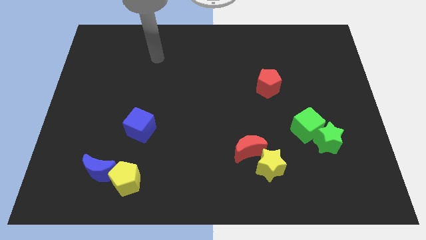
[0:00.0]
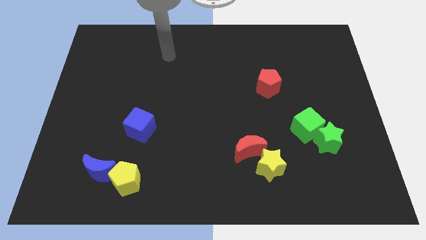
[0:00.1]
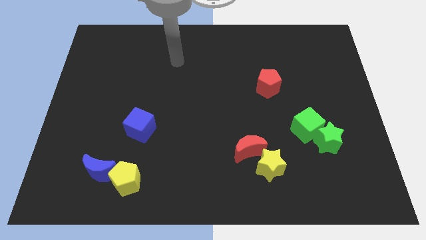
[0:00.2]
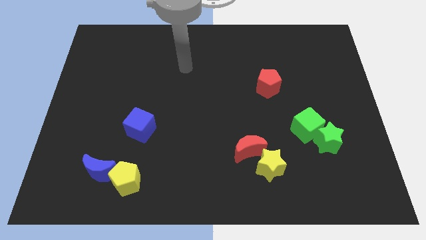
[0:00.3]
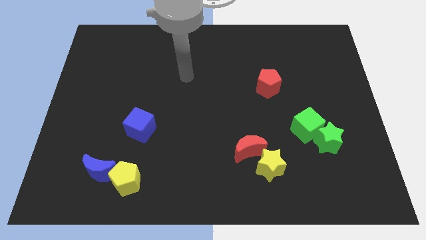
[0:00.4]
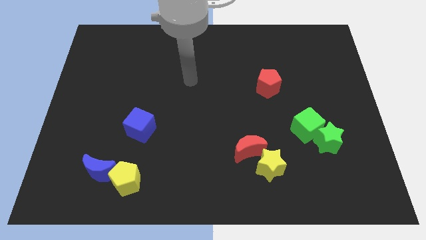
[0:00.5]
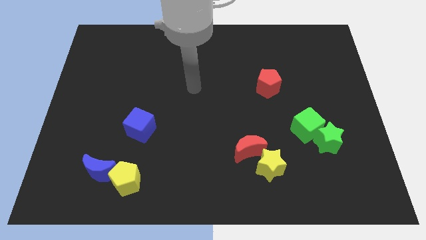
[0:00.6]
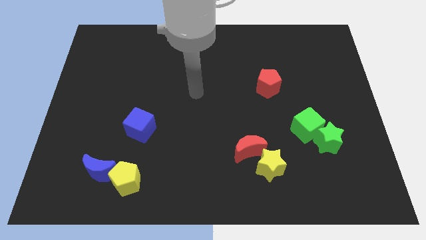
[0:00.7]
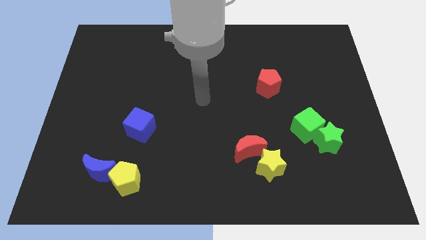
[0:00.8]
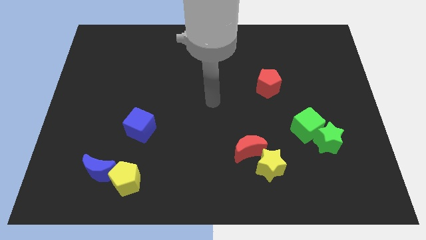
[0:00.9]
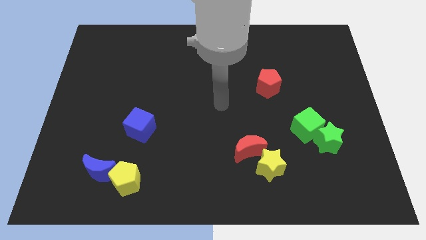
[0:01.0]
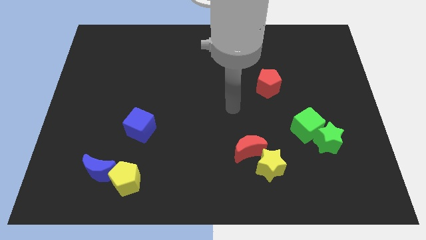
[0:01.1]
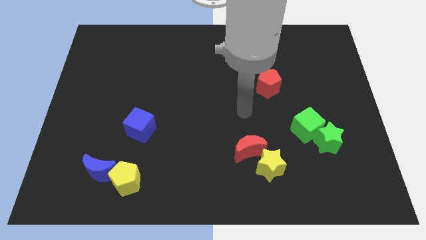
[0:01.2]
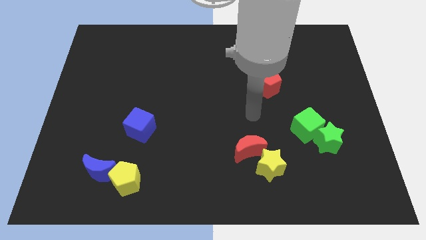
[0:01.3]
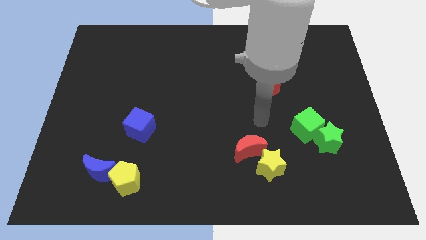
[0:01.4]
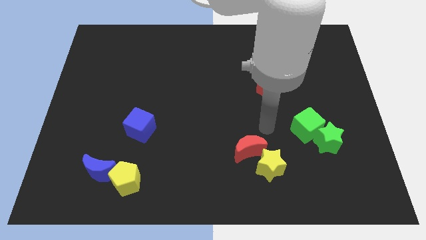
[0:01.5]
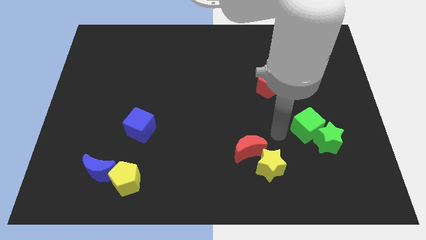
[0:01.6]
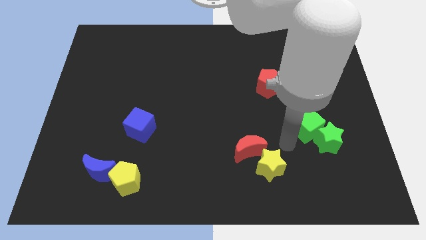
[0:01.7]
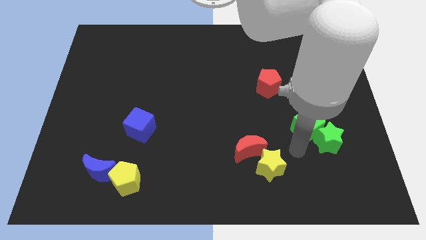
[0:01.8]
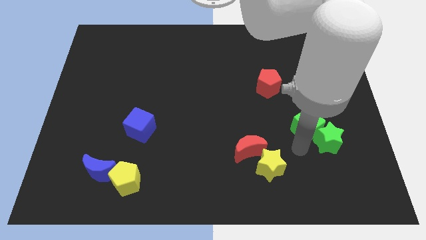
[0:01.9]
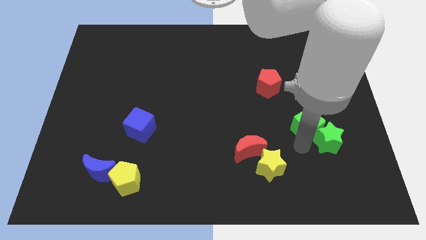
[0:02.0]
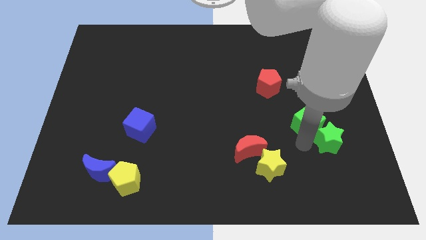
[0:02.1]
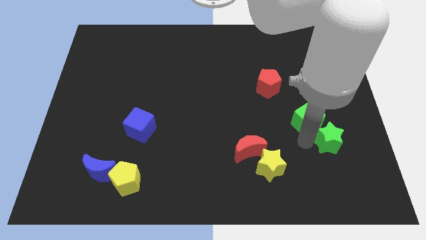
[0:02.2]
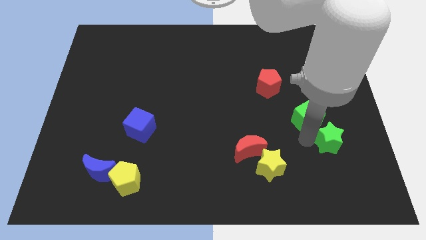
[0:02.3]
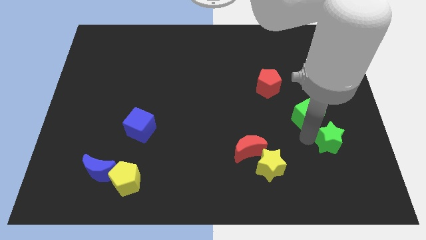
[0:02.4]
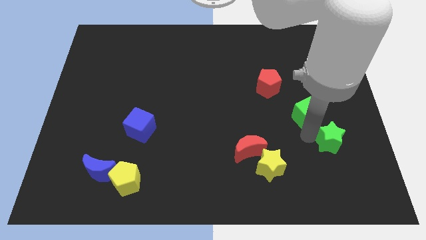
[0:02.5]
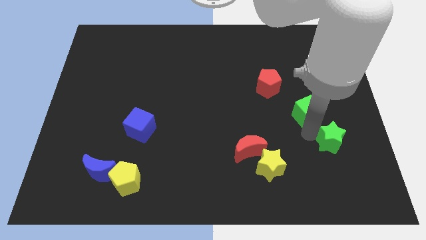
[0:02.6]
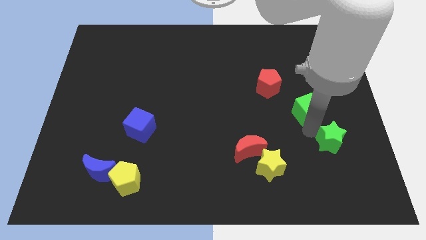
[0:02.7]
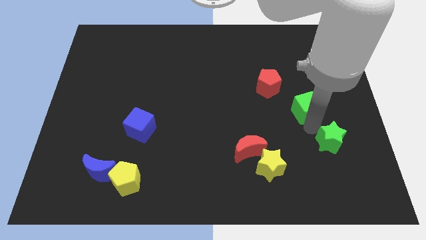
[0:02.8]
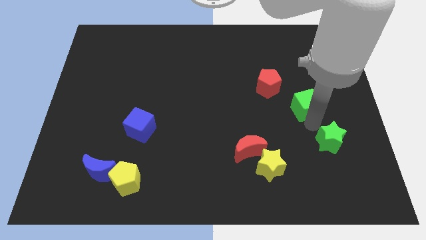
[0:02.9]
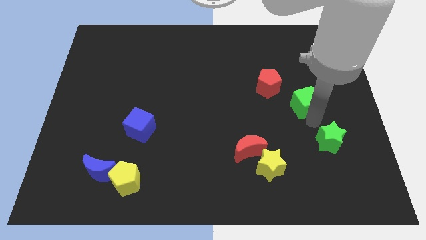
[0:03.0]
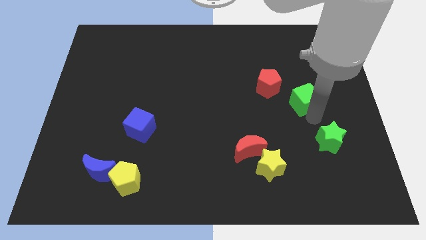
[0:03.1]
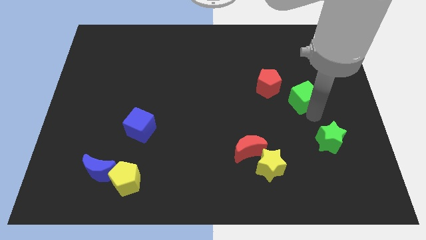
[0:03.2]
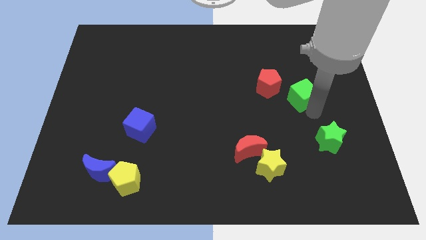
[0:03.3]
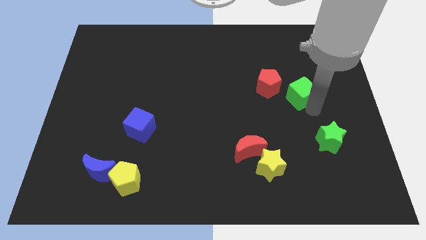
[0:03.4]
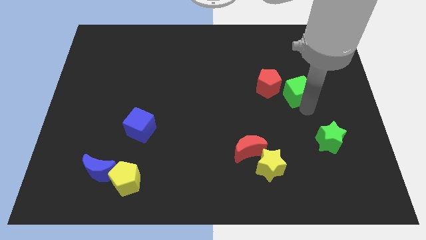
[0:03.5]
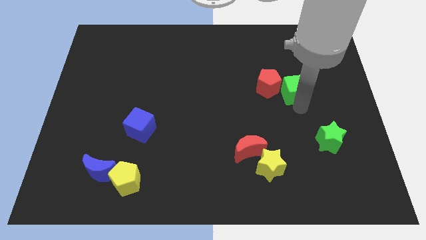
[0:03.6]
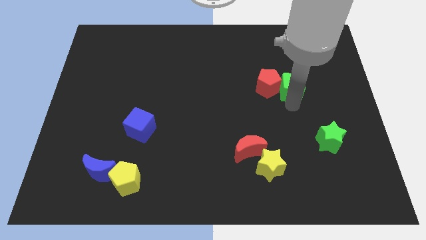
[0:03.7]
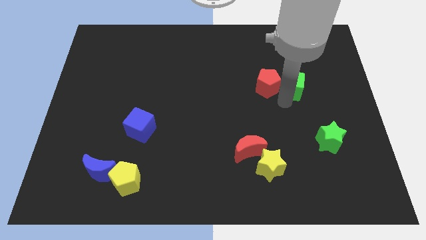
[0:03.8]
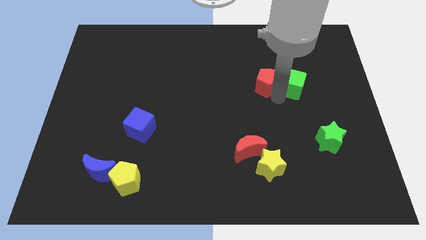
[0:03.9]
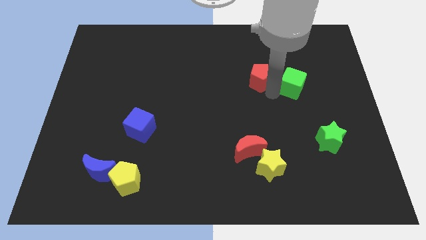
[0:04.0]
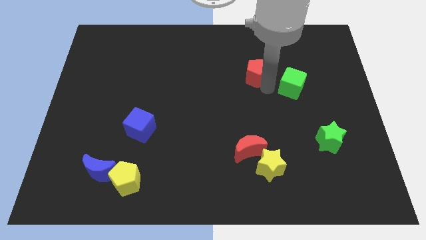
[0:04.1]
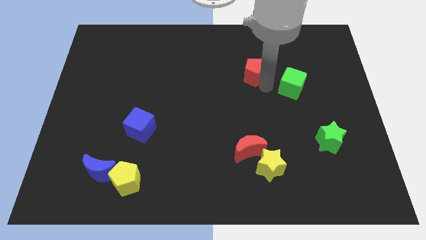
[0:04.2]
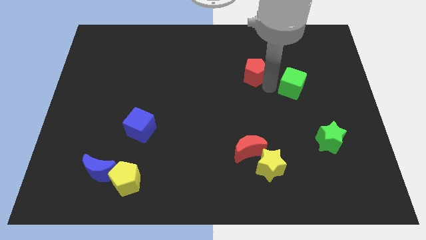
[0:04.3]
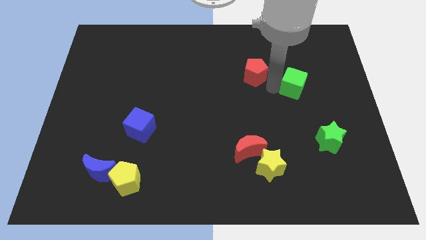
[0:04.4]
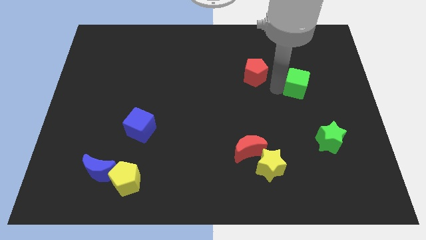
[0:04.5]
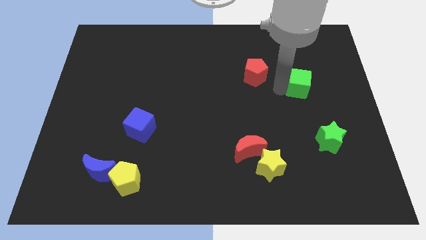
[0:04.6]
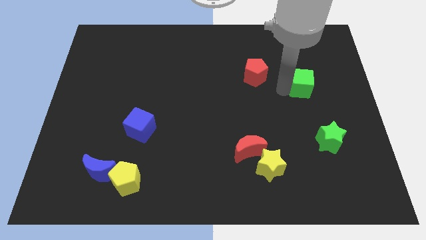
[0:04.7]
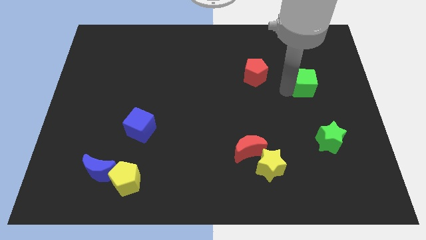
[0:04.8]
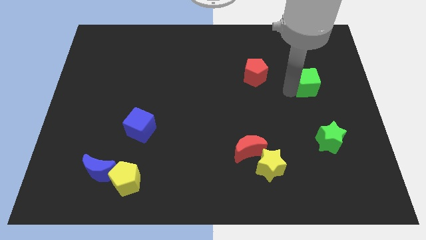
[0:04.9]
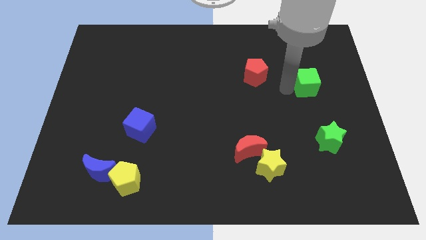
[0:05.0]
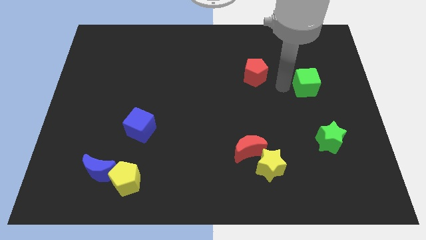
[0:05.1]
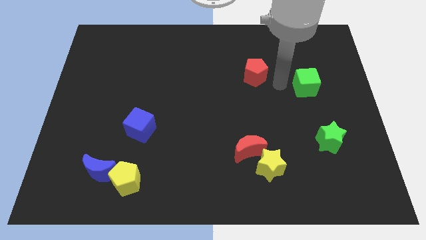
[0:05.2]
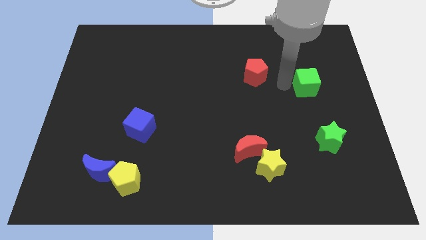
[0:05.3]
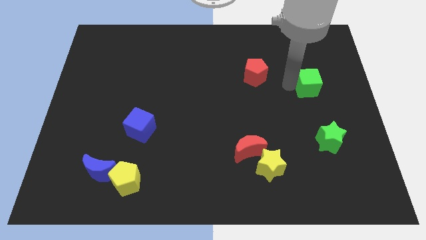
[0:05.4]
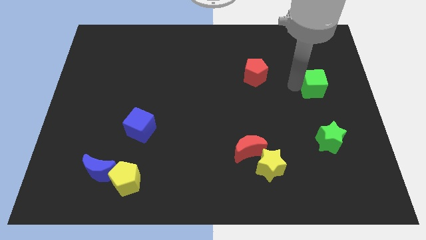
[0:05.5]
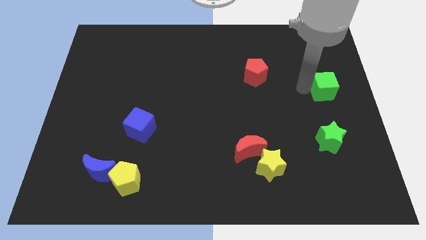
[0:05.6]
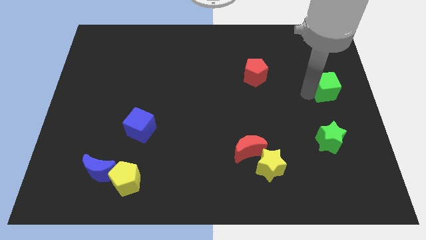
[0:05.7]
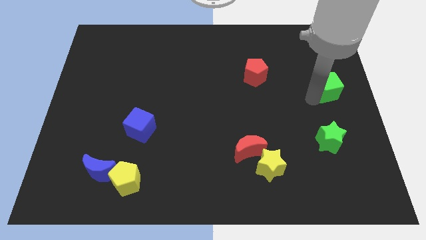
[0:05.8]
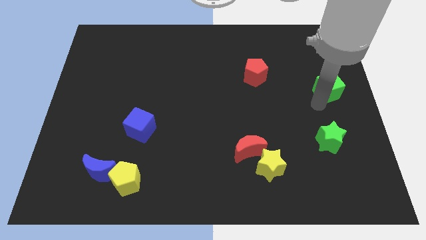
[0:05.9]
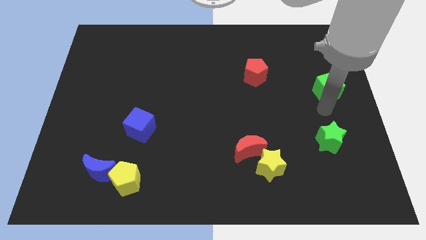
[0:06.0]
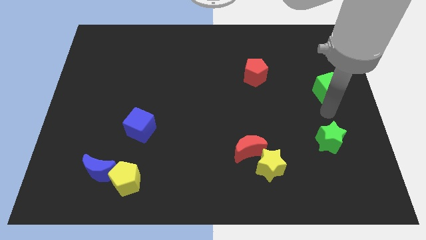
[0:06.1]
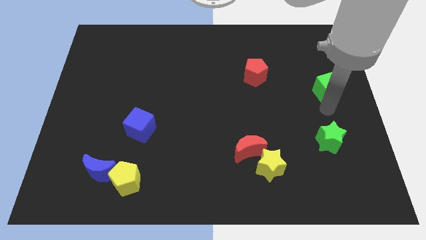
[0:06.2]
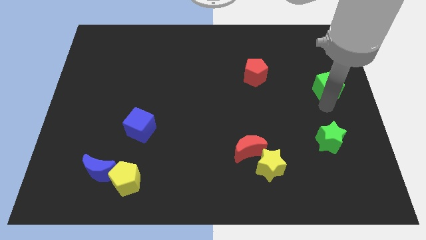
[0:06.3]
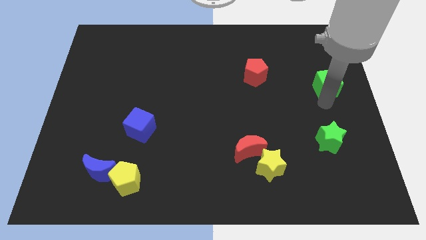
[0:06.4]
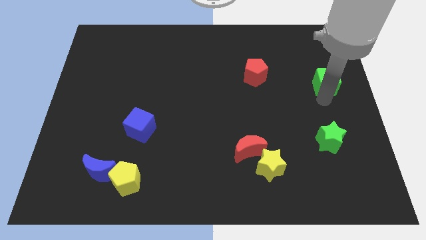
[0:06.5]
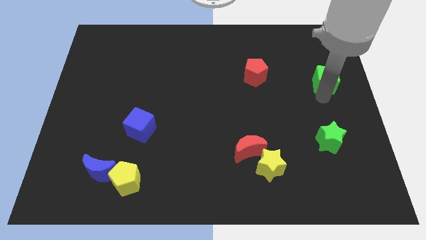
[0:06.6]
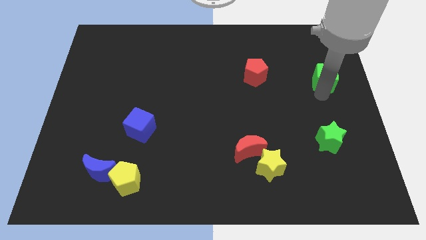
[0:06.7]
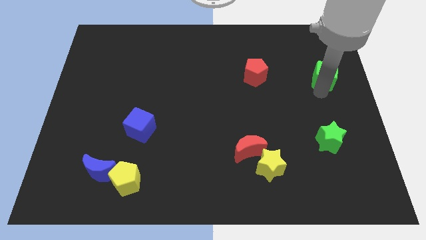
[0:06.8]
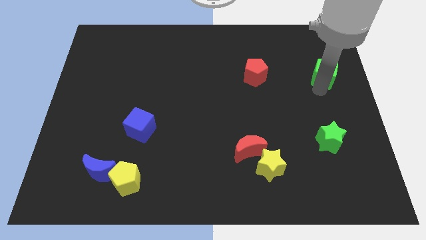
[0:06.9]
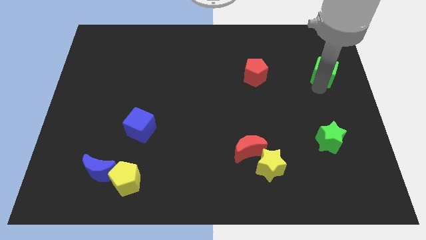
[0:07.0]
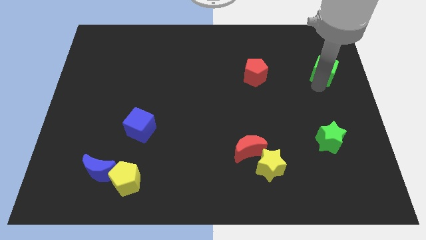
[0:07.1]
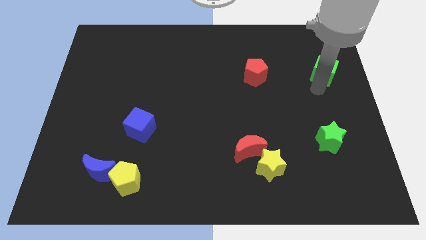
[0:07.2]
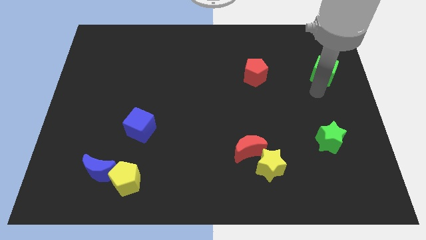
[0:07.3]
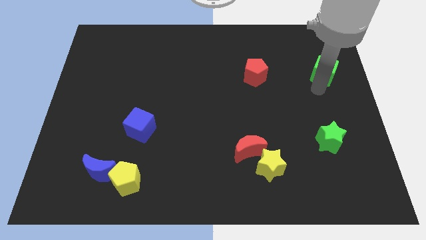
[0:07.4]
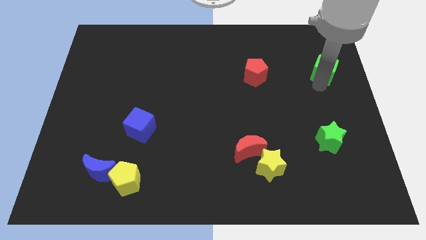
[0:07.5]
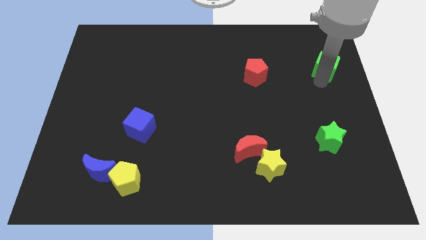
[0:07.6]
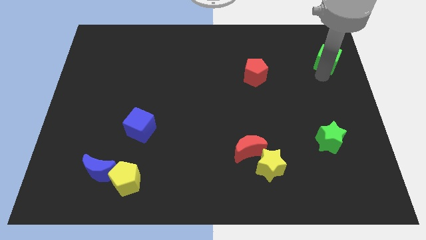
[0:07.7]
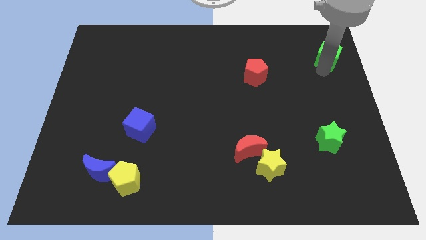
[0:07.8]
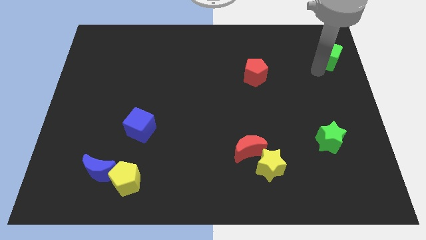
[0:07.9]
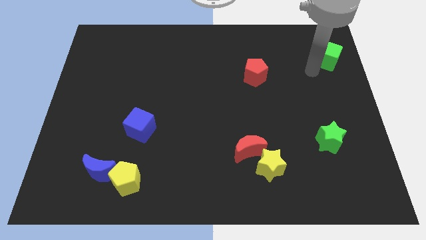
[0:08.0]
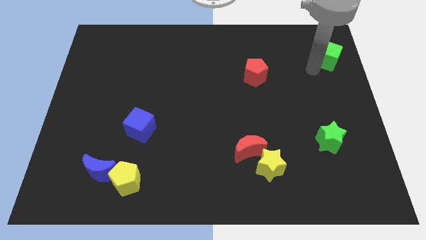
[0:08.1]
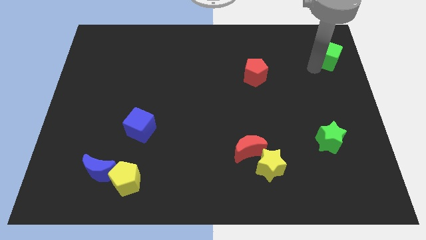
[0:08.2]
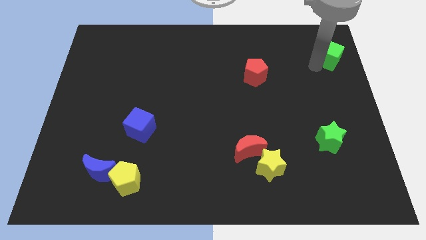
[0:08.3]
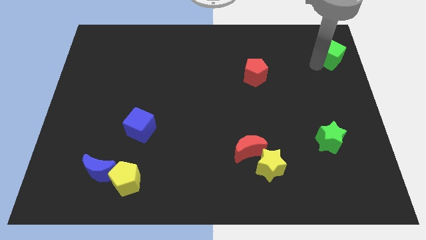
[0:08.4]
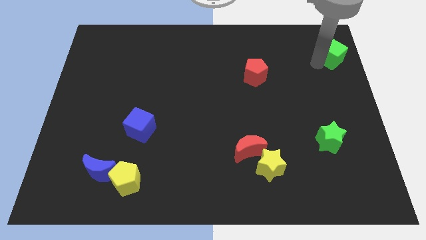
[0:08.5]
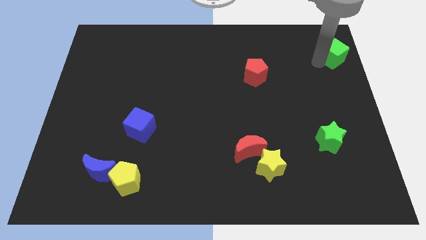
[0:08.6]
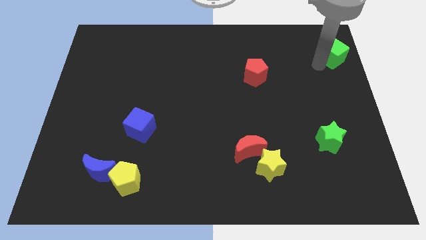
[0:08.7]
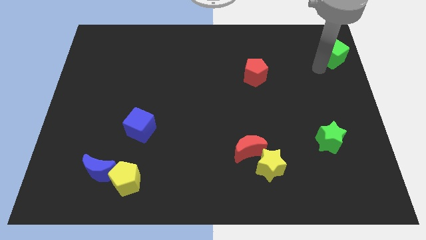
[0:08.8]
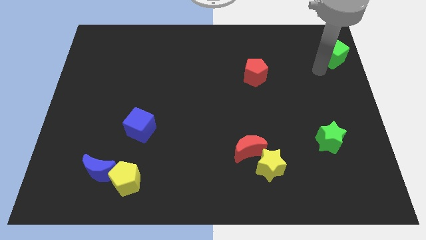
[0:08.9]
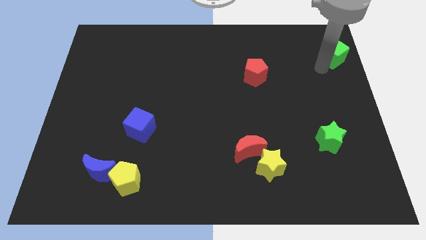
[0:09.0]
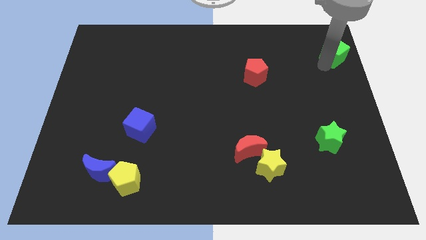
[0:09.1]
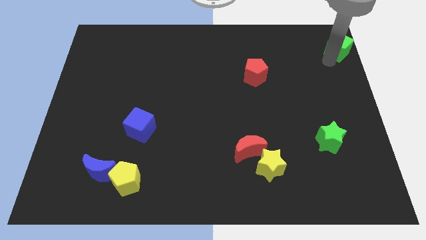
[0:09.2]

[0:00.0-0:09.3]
slide the green cube to the upper right corner
